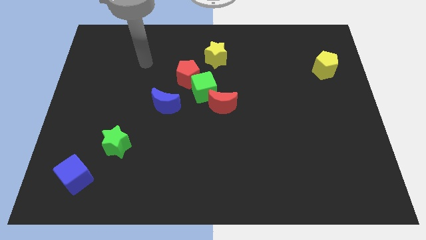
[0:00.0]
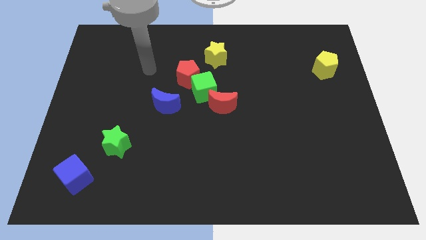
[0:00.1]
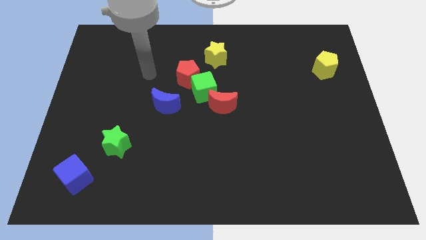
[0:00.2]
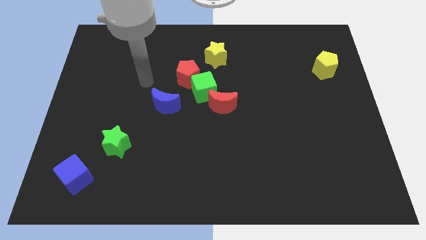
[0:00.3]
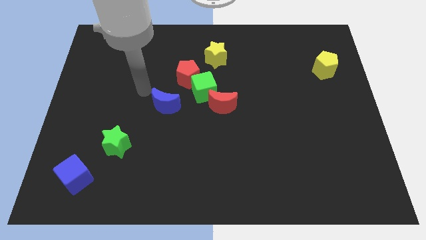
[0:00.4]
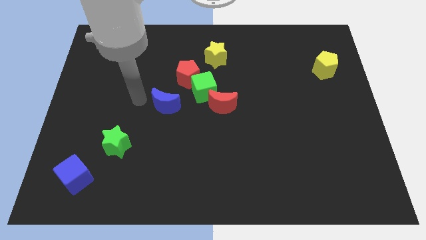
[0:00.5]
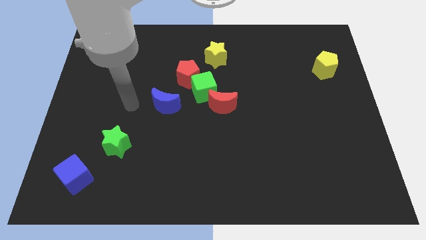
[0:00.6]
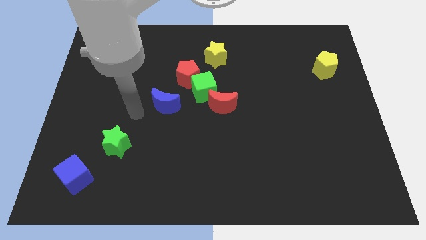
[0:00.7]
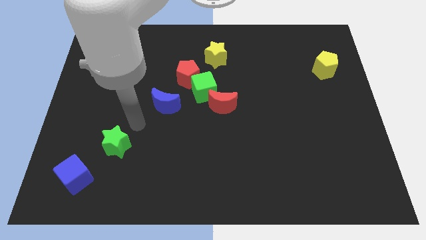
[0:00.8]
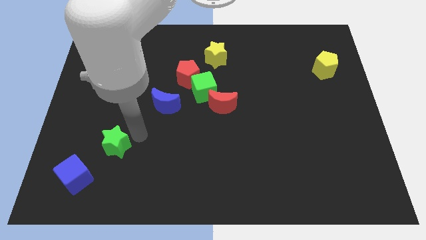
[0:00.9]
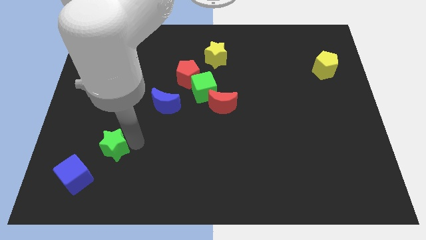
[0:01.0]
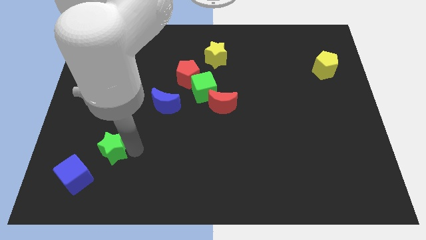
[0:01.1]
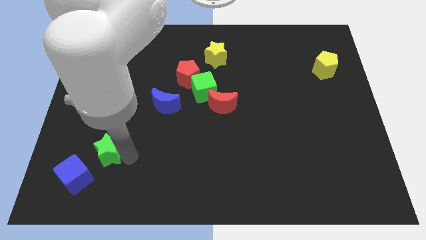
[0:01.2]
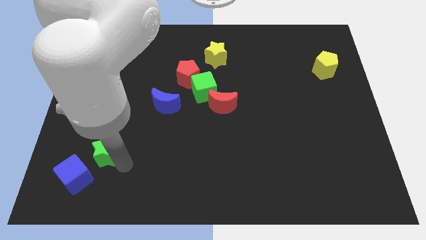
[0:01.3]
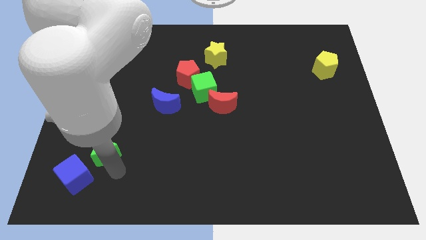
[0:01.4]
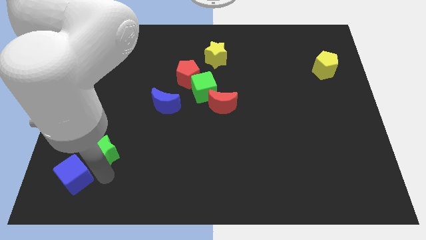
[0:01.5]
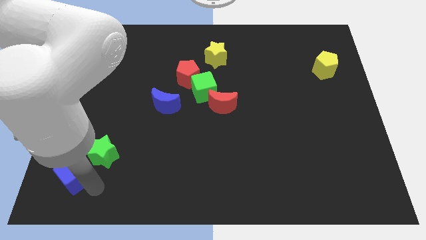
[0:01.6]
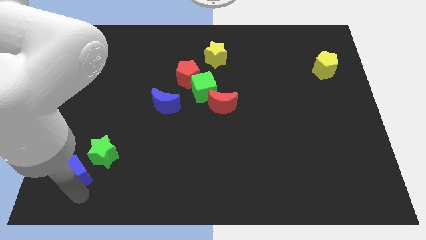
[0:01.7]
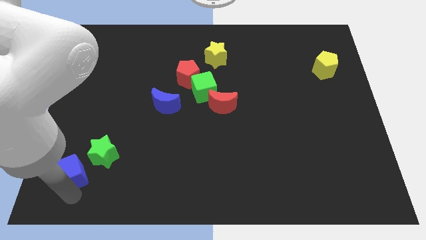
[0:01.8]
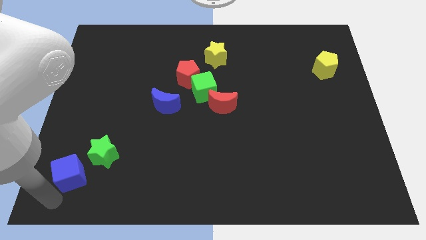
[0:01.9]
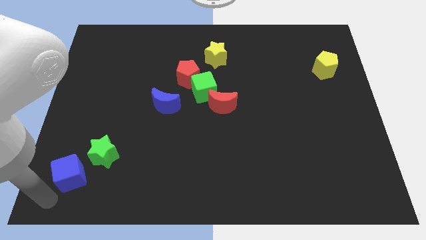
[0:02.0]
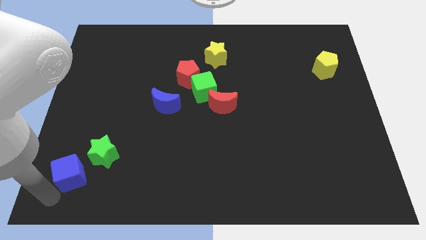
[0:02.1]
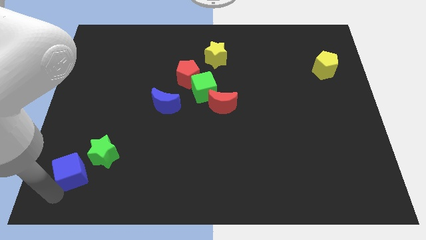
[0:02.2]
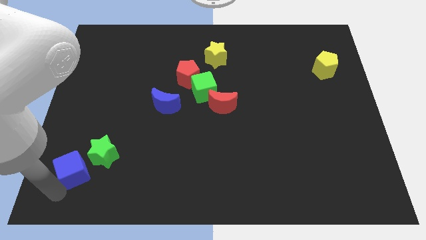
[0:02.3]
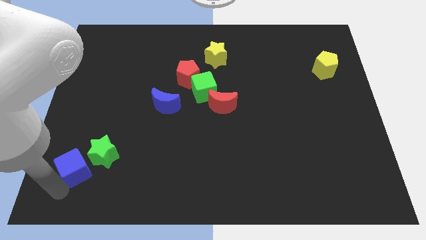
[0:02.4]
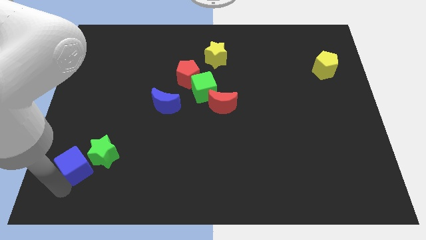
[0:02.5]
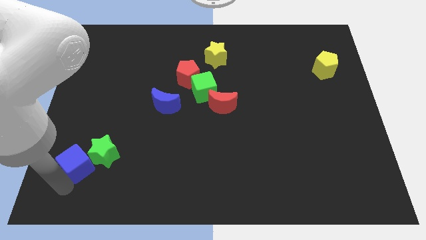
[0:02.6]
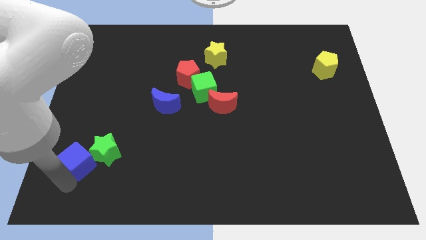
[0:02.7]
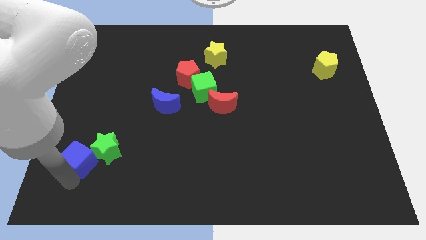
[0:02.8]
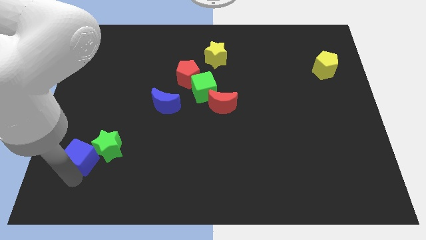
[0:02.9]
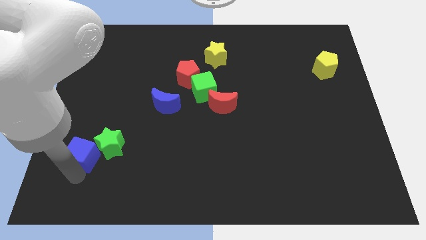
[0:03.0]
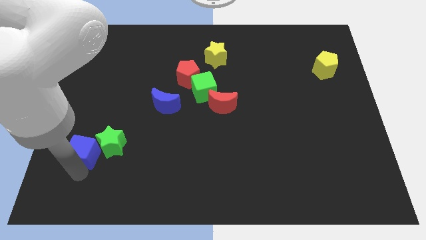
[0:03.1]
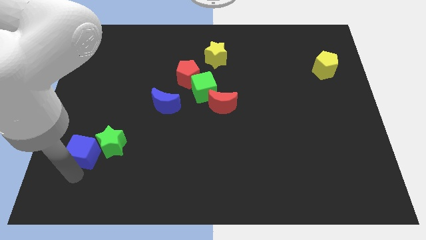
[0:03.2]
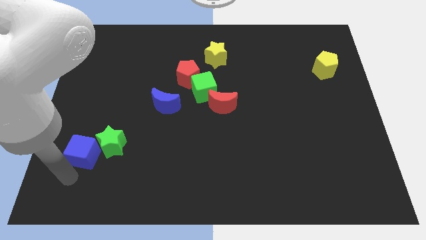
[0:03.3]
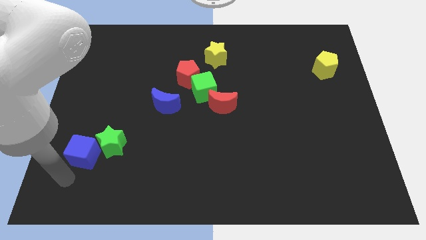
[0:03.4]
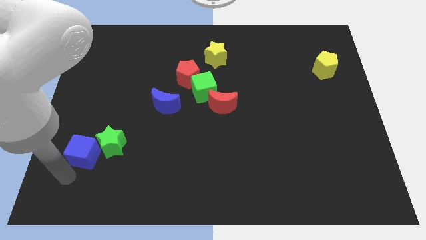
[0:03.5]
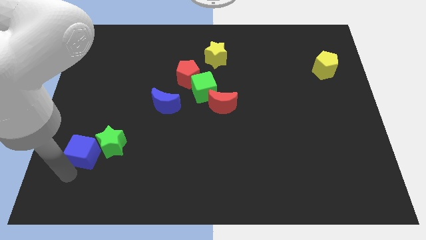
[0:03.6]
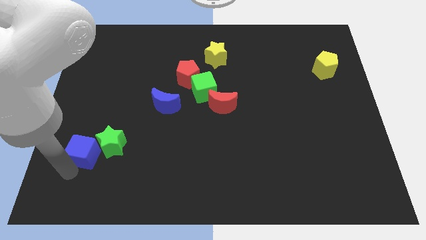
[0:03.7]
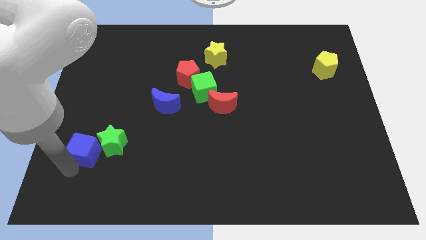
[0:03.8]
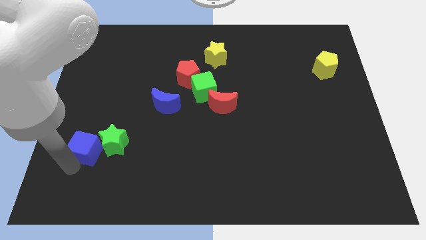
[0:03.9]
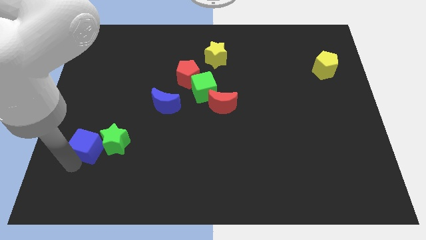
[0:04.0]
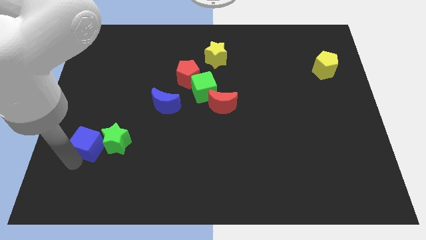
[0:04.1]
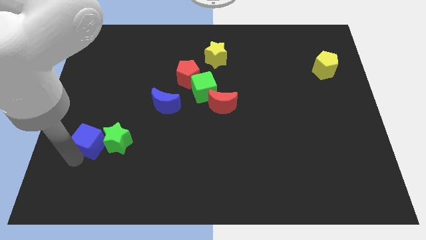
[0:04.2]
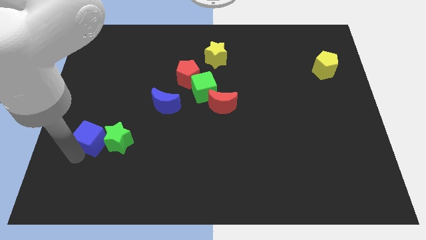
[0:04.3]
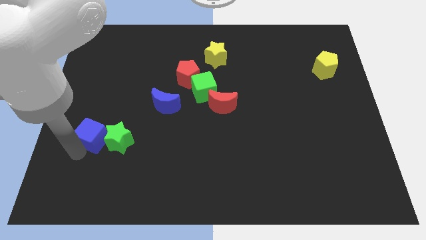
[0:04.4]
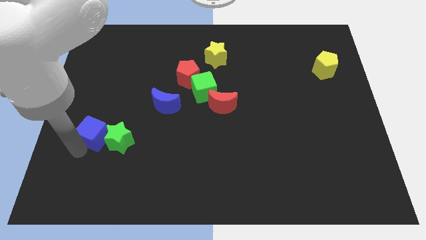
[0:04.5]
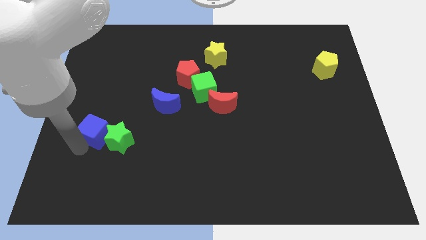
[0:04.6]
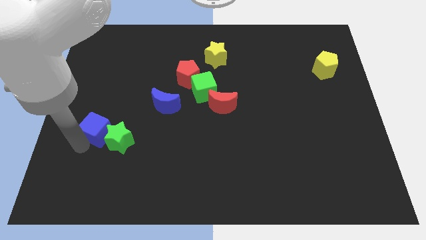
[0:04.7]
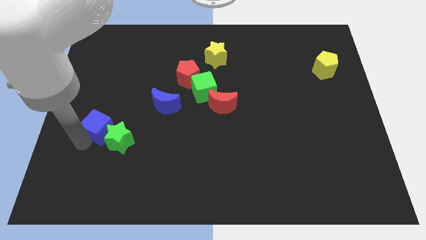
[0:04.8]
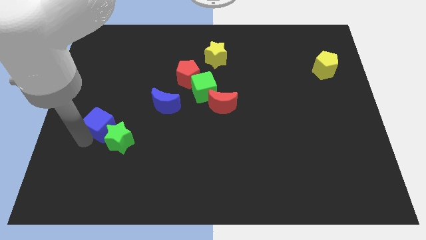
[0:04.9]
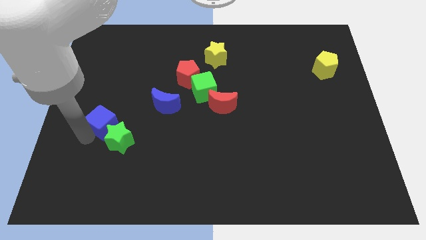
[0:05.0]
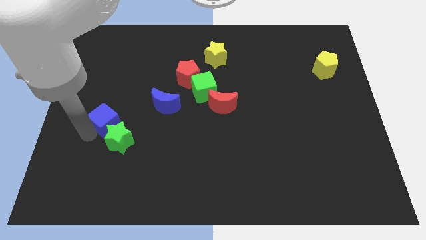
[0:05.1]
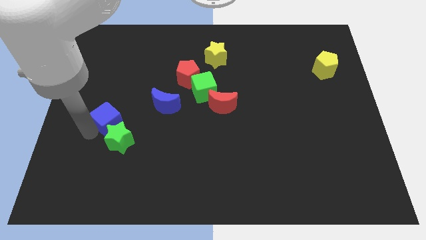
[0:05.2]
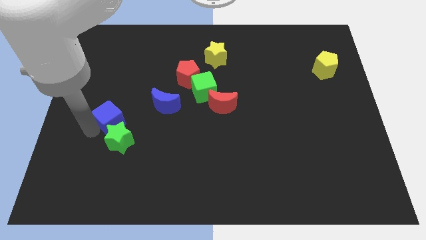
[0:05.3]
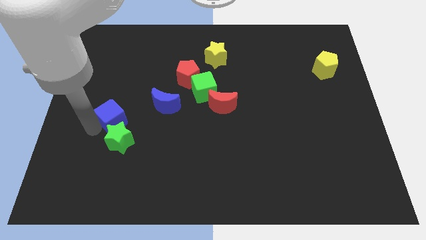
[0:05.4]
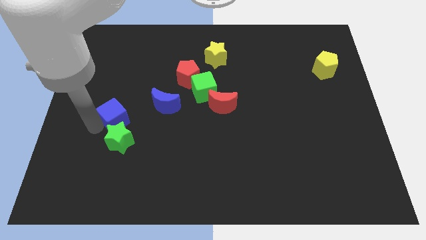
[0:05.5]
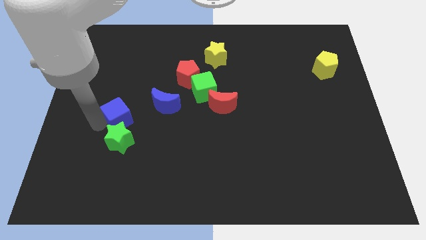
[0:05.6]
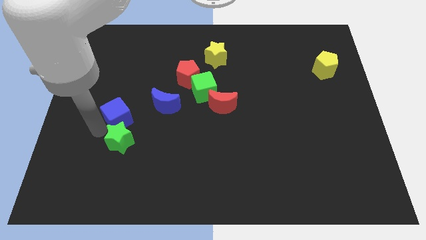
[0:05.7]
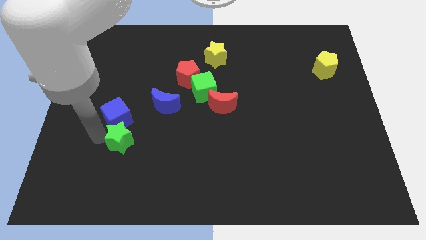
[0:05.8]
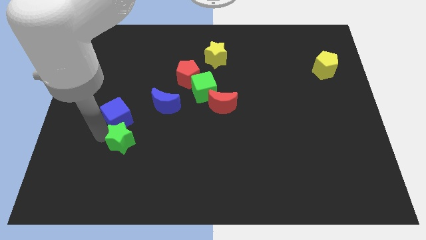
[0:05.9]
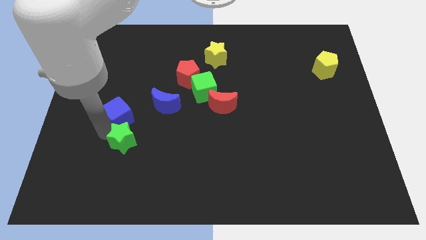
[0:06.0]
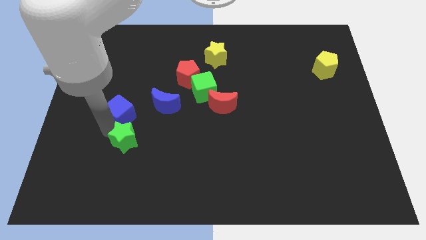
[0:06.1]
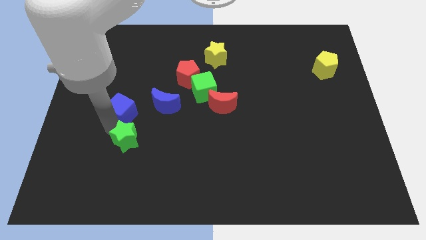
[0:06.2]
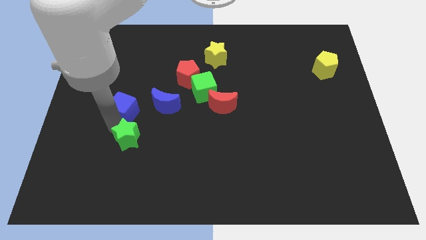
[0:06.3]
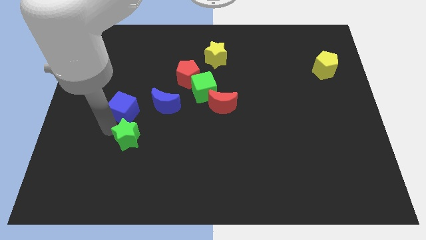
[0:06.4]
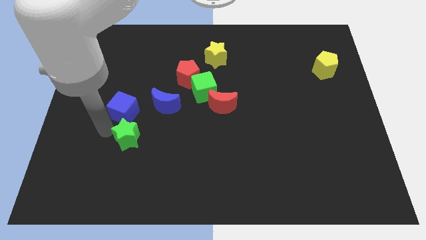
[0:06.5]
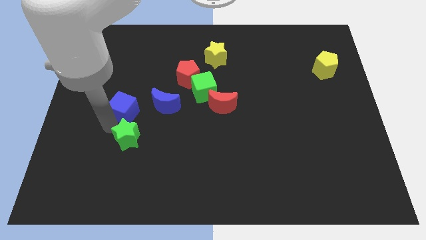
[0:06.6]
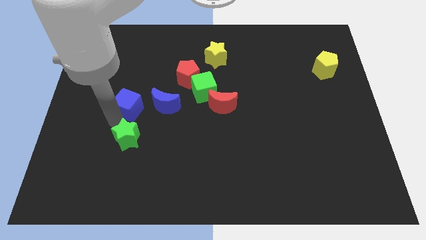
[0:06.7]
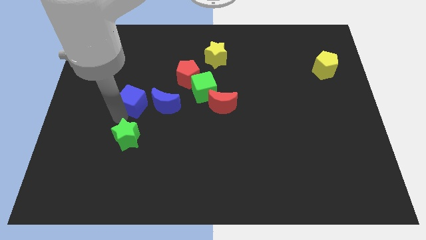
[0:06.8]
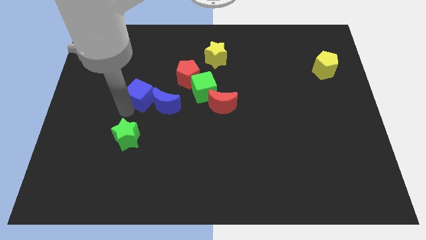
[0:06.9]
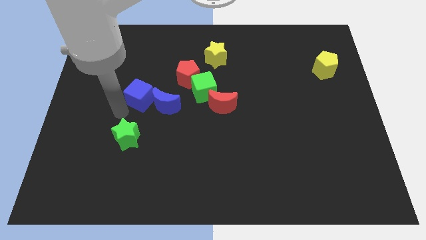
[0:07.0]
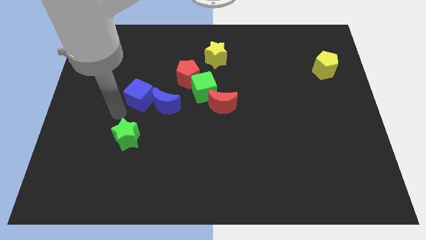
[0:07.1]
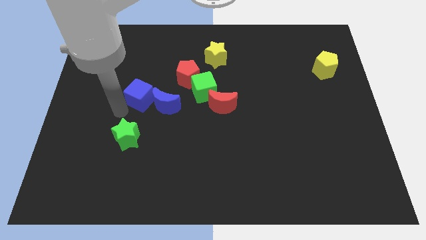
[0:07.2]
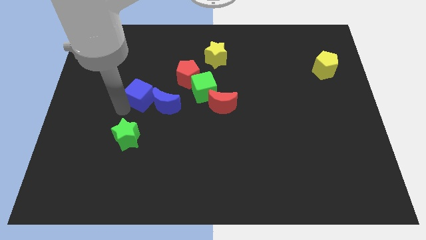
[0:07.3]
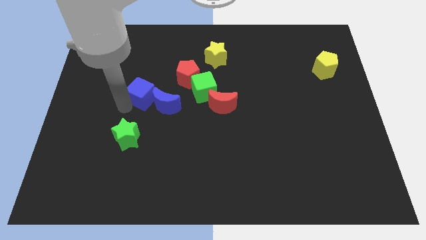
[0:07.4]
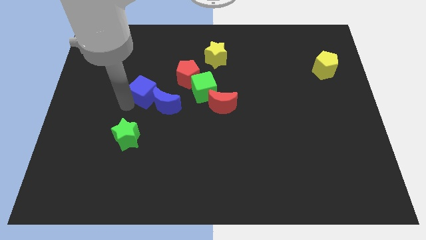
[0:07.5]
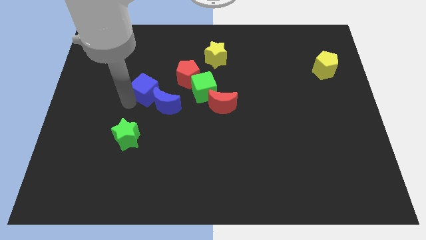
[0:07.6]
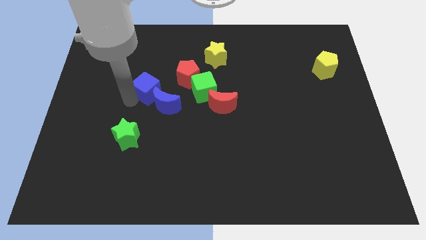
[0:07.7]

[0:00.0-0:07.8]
push the blue cube above the blue moon
